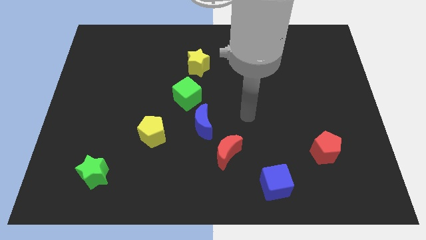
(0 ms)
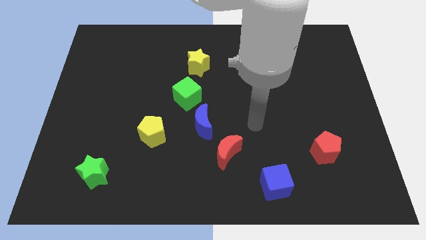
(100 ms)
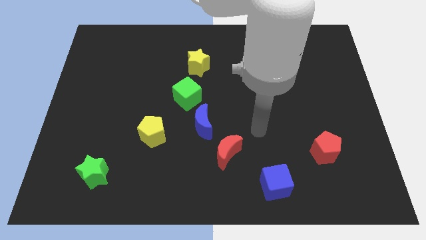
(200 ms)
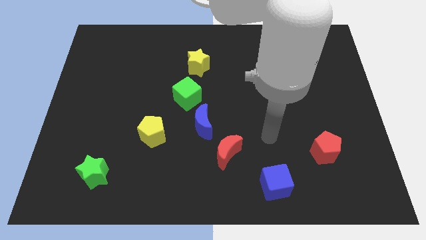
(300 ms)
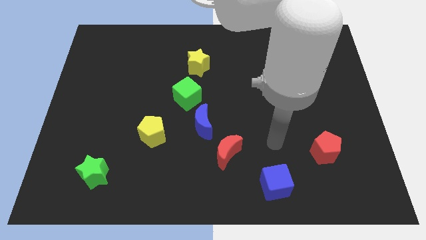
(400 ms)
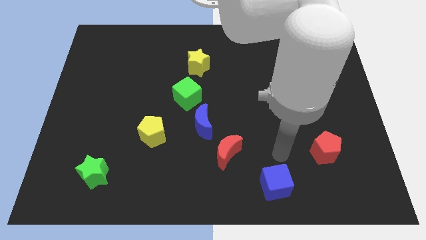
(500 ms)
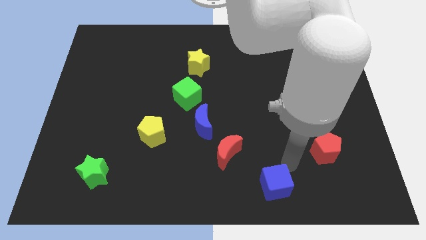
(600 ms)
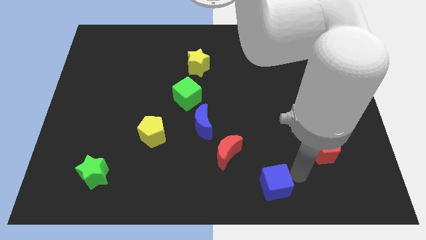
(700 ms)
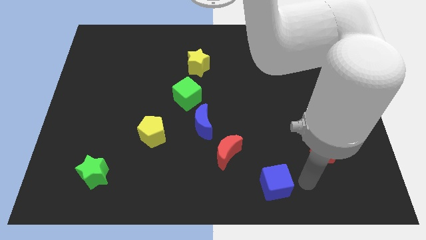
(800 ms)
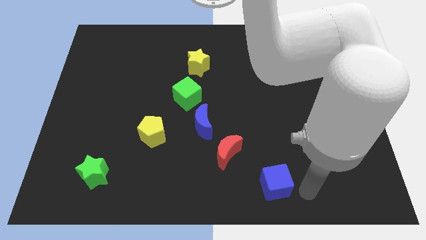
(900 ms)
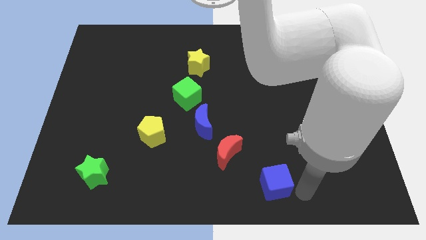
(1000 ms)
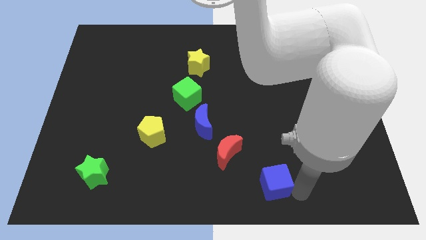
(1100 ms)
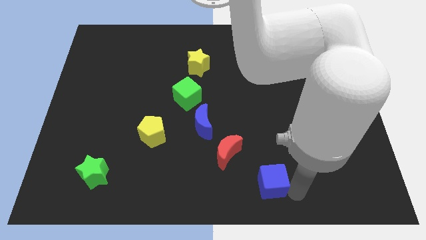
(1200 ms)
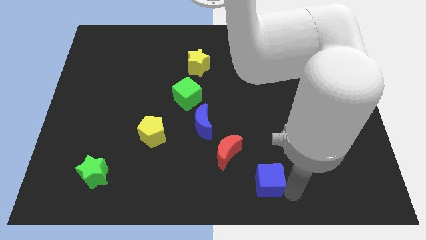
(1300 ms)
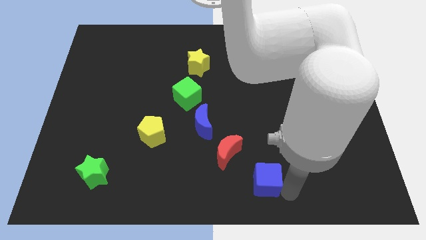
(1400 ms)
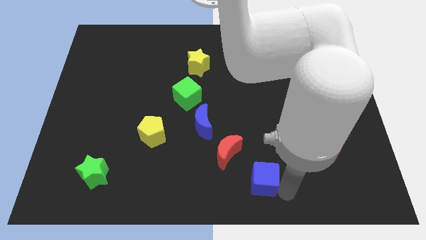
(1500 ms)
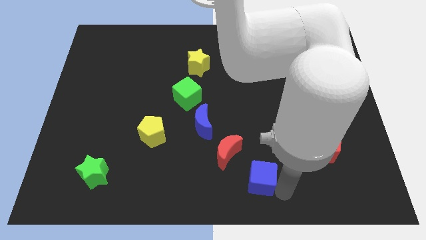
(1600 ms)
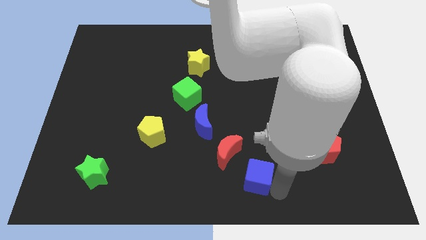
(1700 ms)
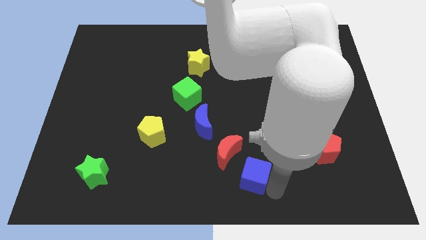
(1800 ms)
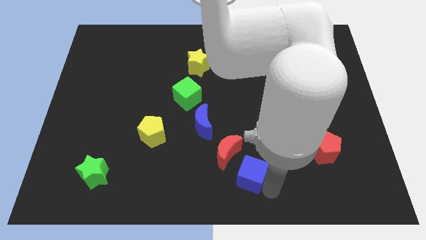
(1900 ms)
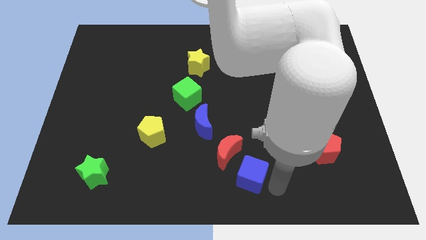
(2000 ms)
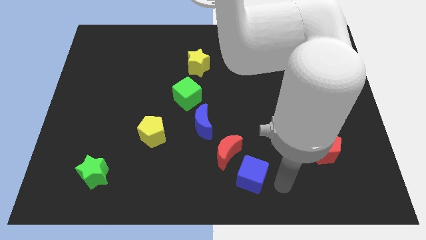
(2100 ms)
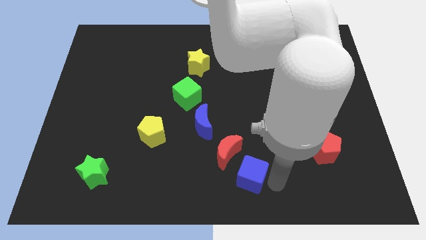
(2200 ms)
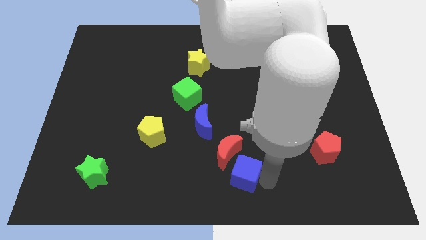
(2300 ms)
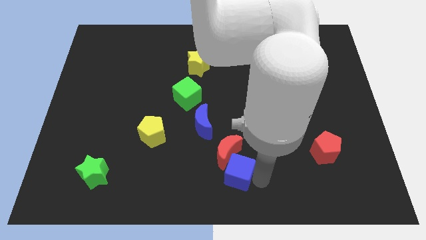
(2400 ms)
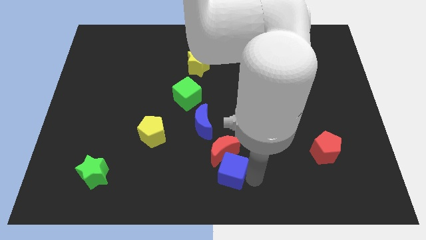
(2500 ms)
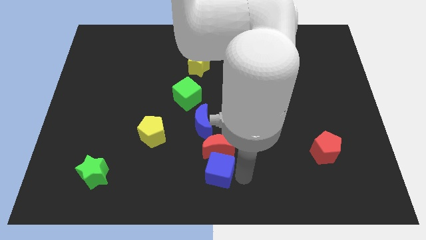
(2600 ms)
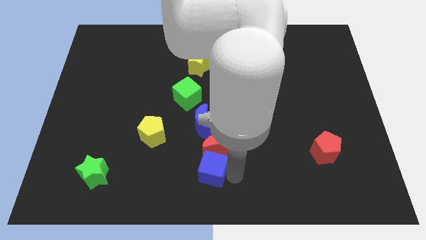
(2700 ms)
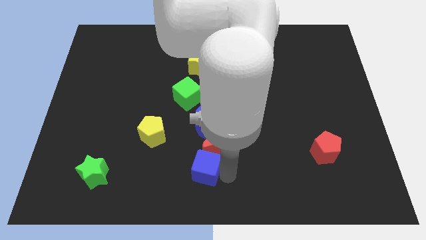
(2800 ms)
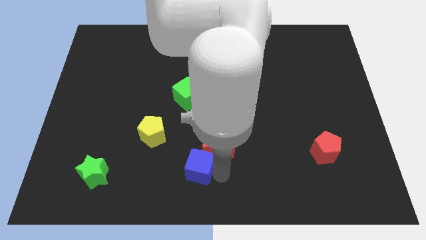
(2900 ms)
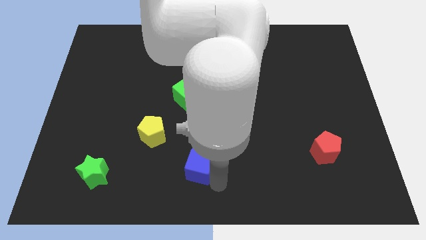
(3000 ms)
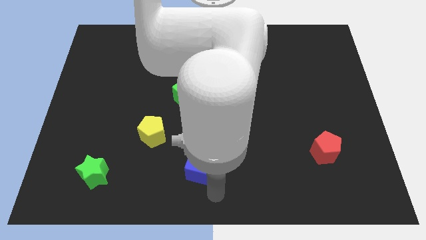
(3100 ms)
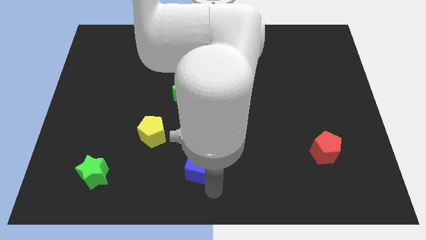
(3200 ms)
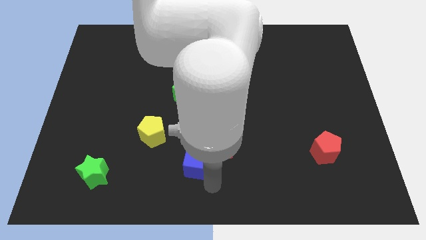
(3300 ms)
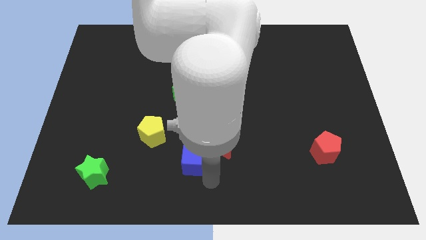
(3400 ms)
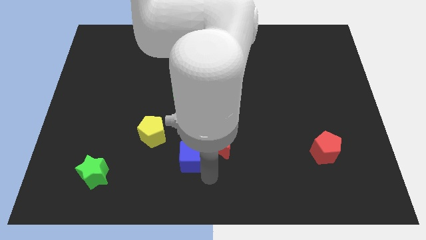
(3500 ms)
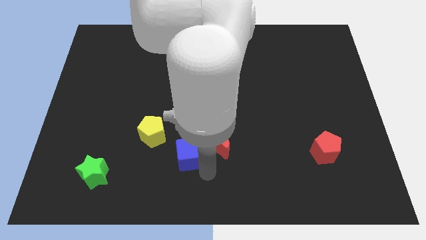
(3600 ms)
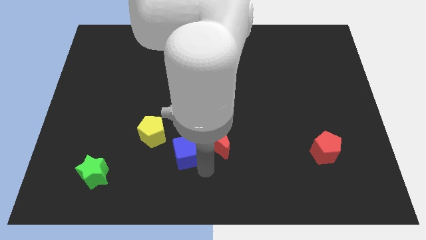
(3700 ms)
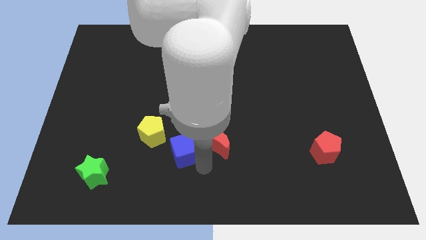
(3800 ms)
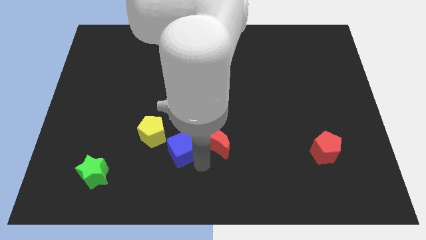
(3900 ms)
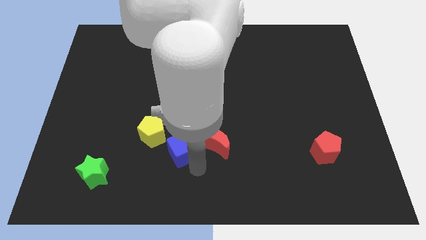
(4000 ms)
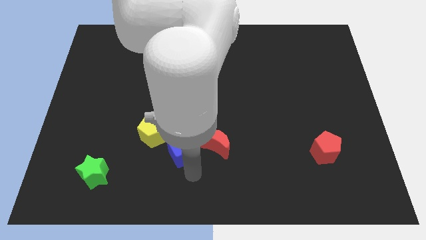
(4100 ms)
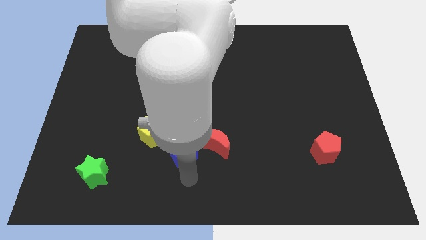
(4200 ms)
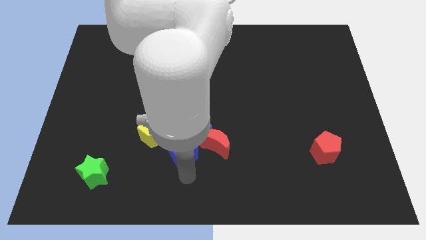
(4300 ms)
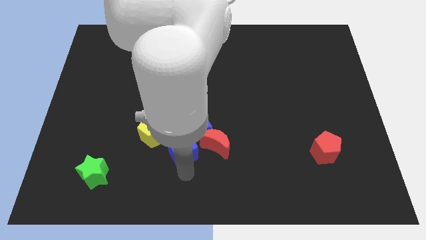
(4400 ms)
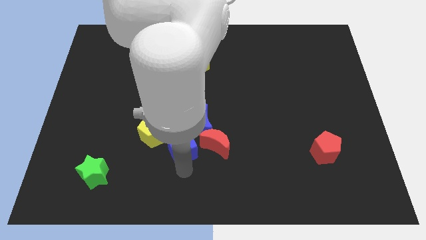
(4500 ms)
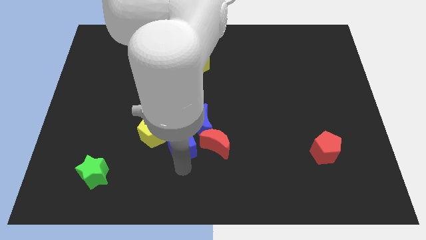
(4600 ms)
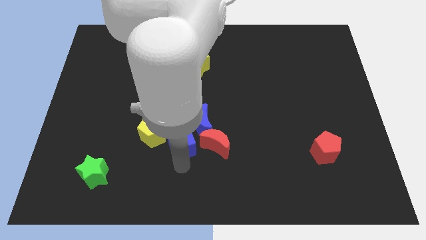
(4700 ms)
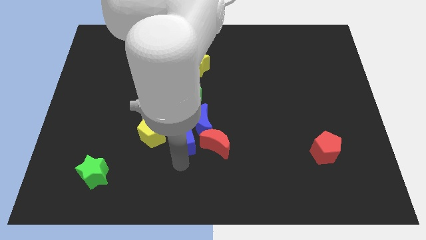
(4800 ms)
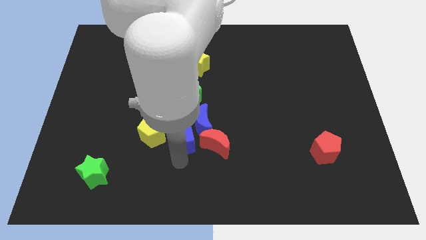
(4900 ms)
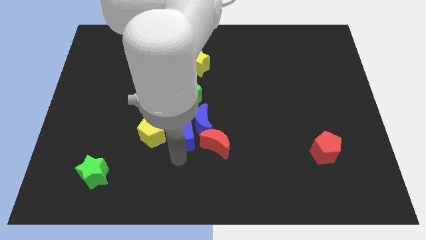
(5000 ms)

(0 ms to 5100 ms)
slide the blue cube diagonally up and to the left

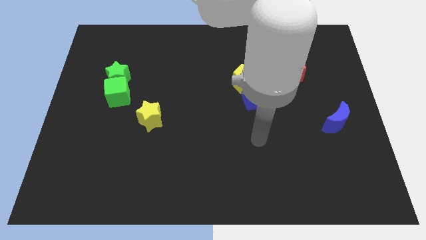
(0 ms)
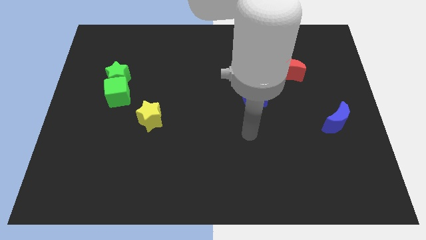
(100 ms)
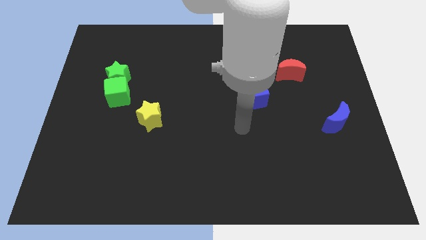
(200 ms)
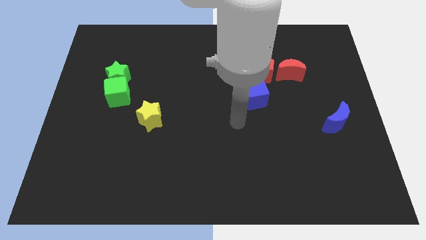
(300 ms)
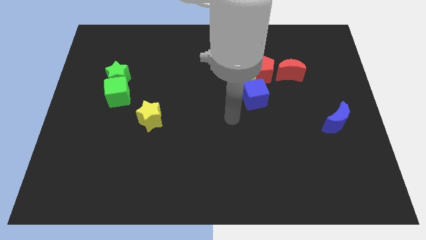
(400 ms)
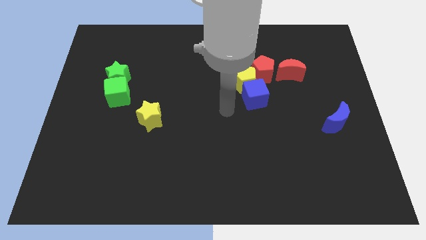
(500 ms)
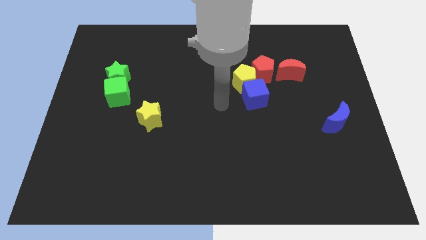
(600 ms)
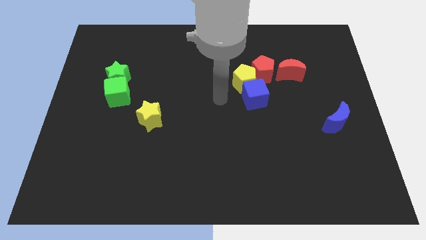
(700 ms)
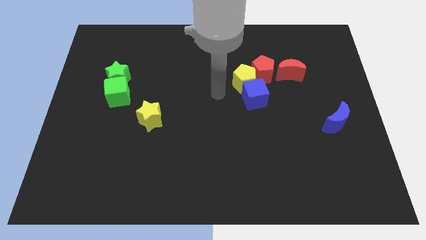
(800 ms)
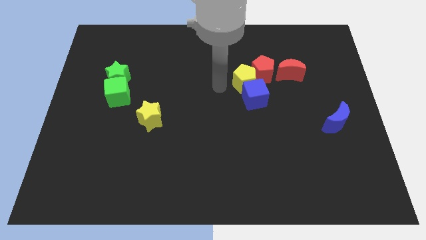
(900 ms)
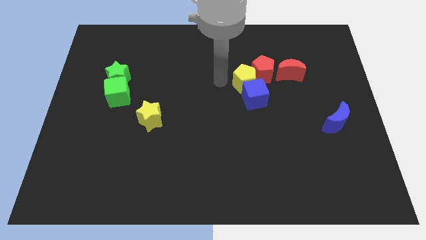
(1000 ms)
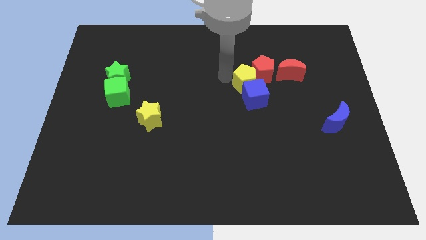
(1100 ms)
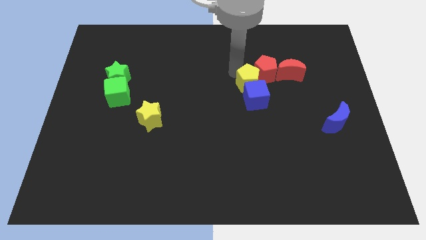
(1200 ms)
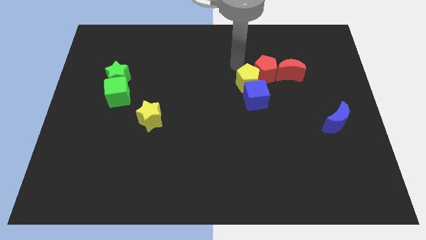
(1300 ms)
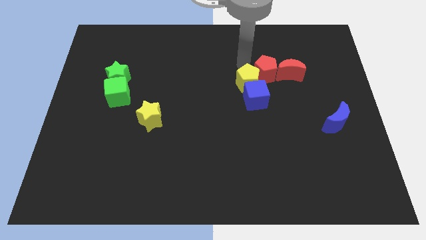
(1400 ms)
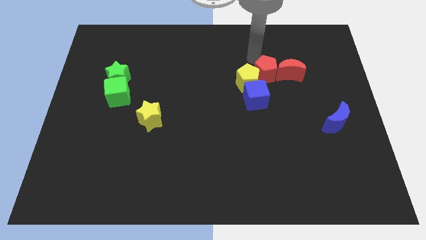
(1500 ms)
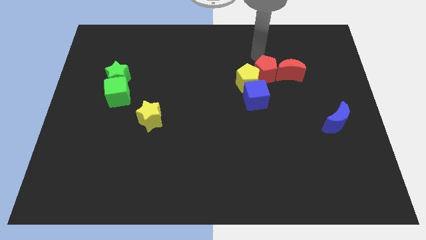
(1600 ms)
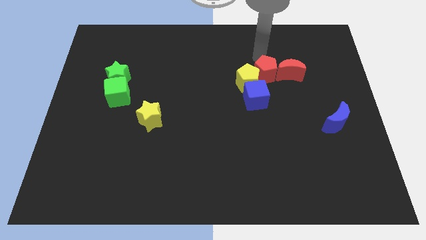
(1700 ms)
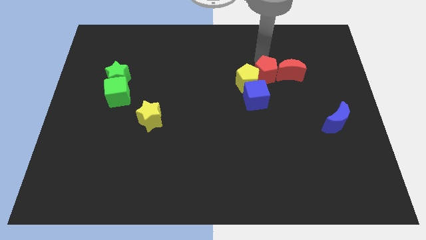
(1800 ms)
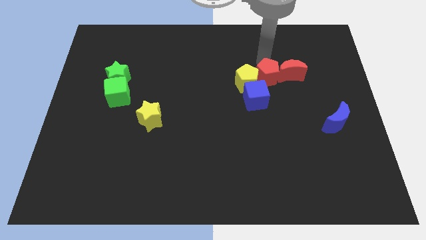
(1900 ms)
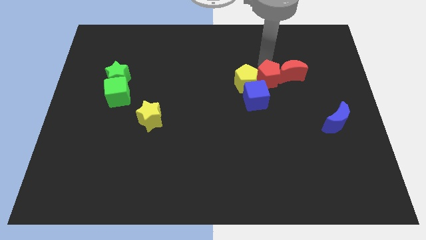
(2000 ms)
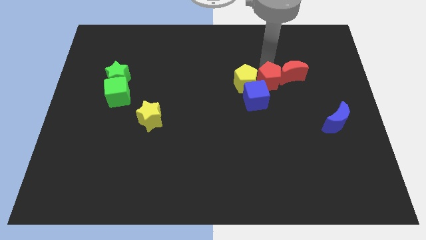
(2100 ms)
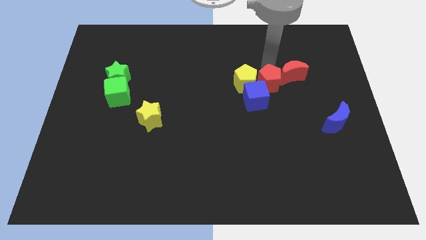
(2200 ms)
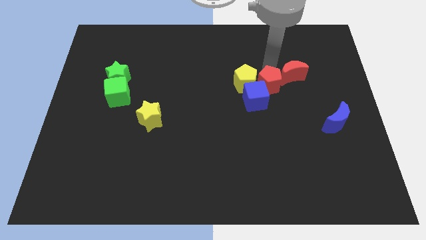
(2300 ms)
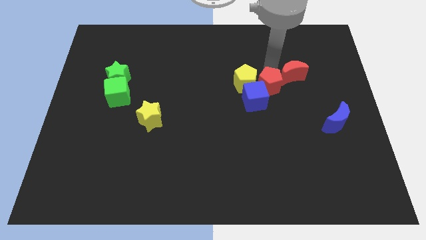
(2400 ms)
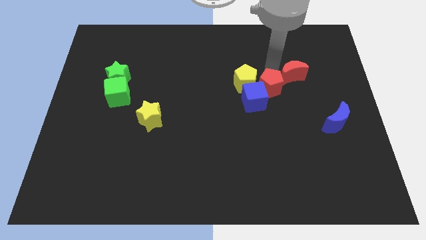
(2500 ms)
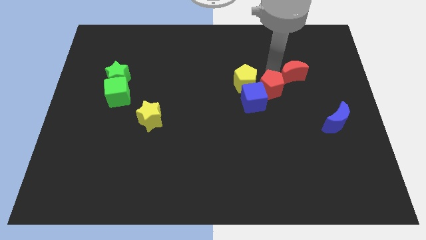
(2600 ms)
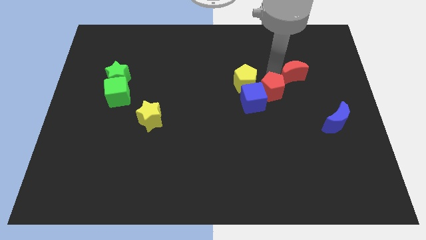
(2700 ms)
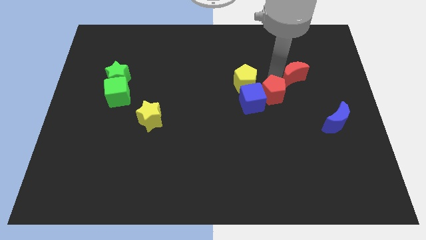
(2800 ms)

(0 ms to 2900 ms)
move the red pentagon down a little
